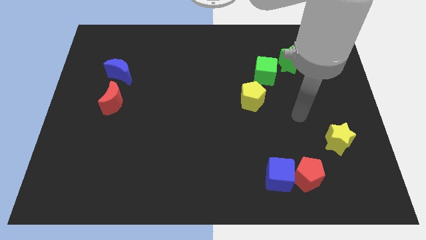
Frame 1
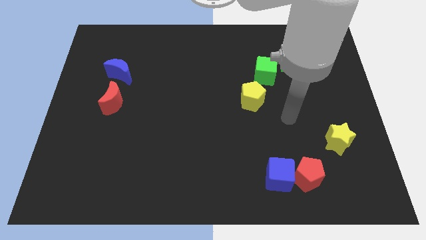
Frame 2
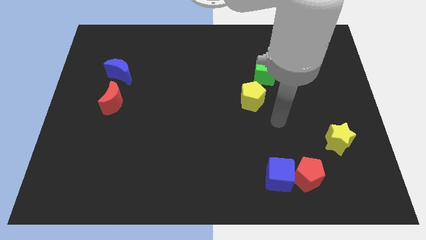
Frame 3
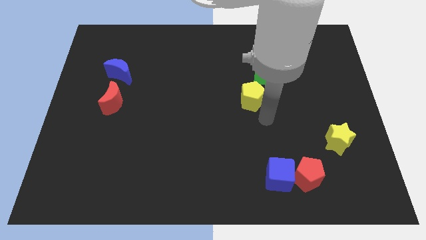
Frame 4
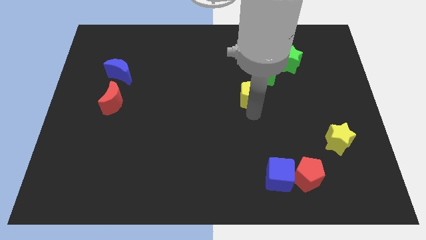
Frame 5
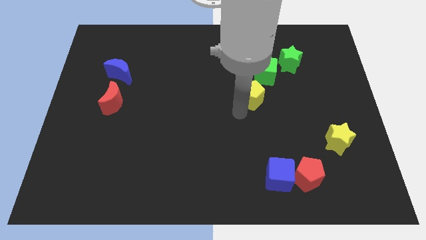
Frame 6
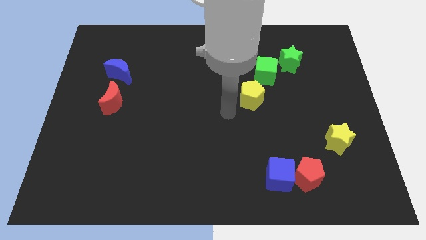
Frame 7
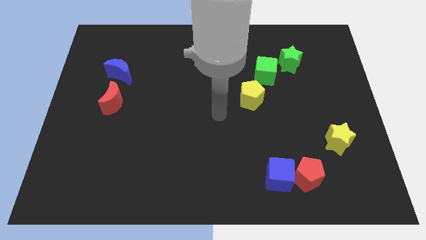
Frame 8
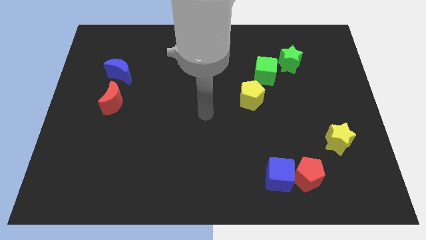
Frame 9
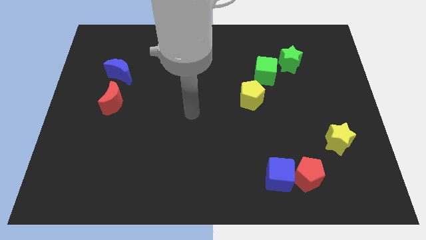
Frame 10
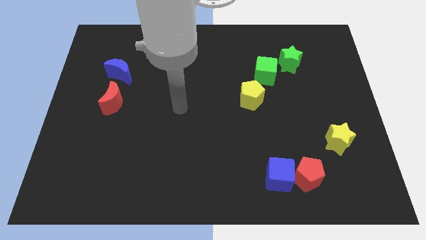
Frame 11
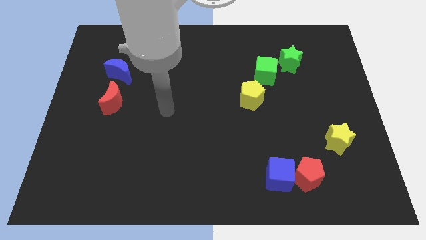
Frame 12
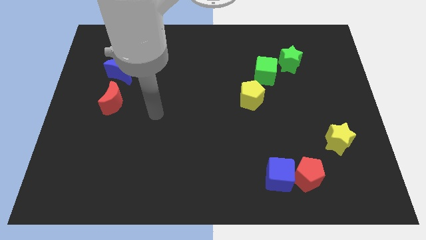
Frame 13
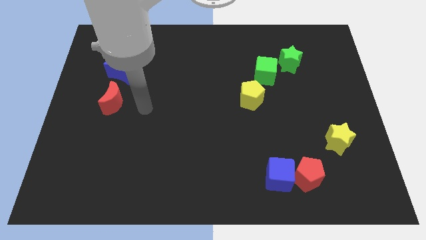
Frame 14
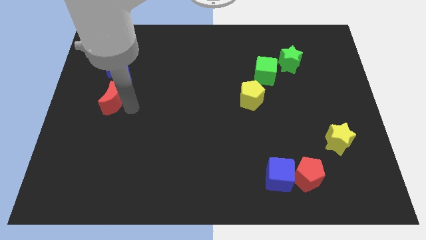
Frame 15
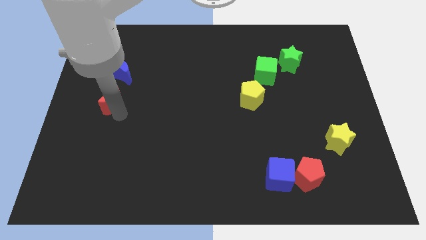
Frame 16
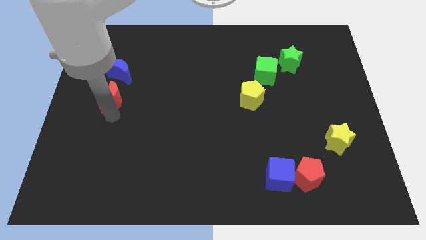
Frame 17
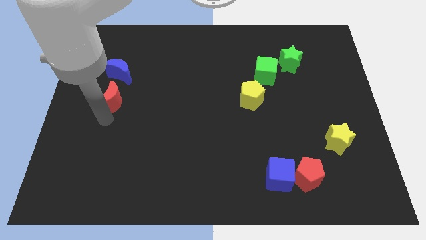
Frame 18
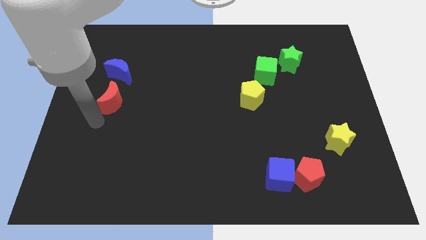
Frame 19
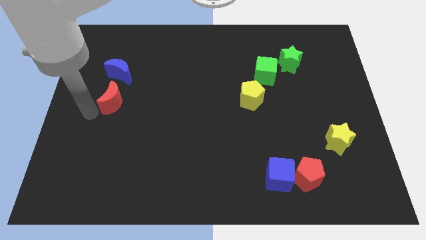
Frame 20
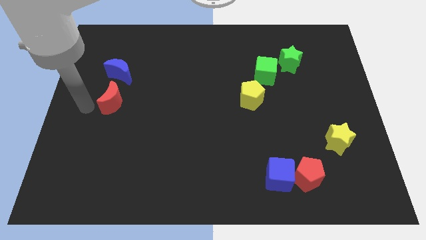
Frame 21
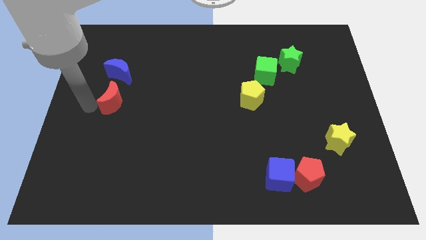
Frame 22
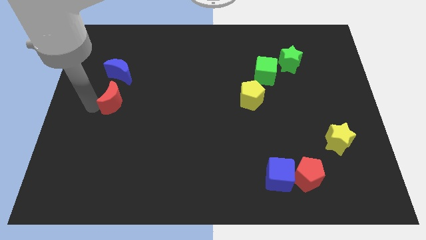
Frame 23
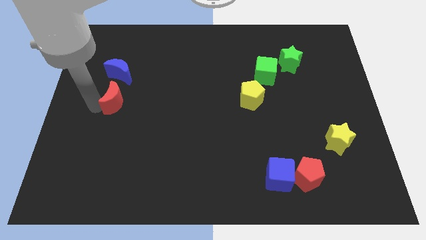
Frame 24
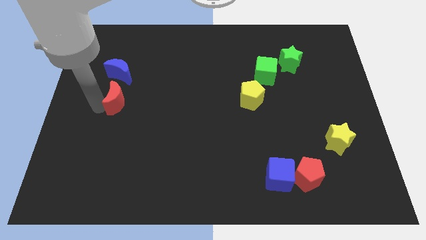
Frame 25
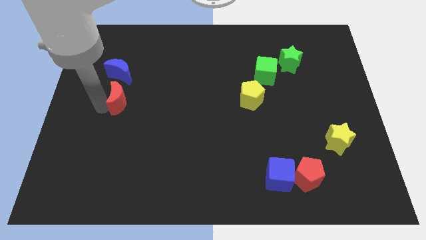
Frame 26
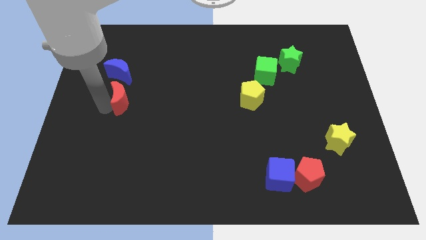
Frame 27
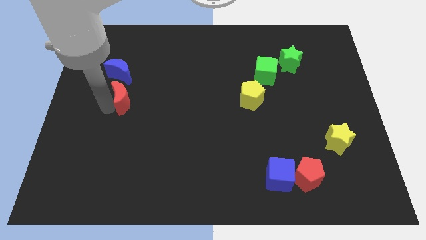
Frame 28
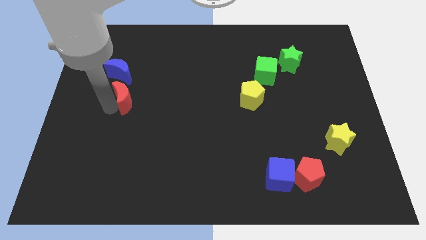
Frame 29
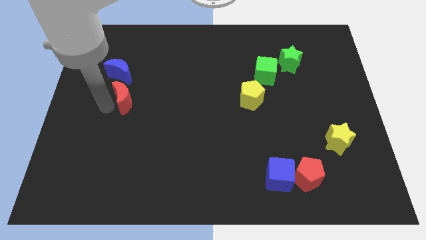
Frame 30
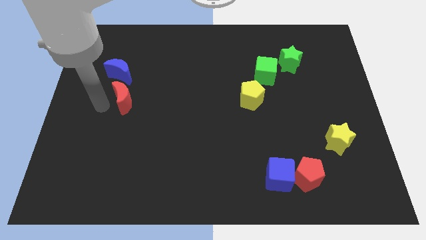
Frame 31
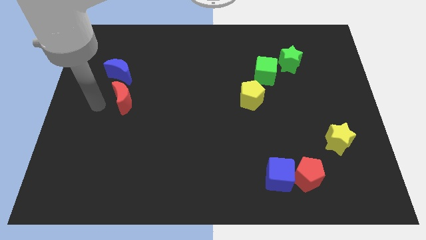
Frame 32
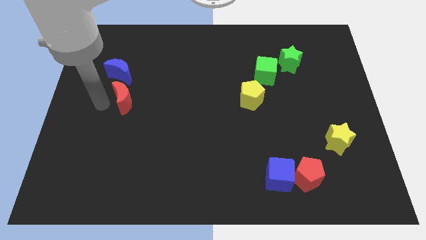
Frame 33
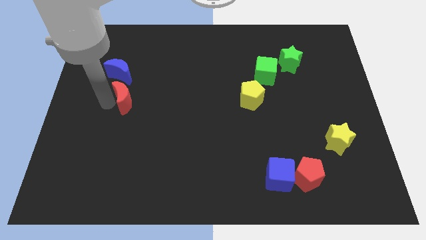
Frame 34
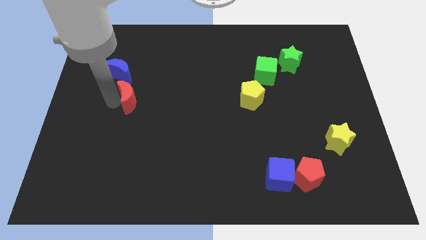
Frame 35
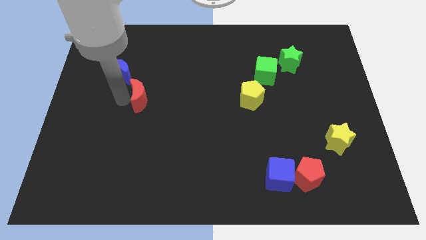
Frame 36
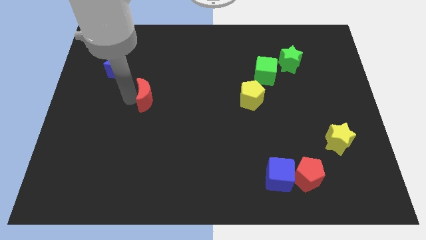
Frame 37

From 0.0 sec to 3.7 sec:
slide the red moon a bit right

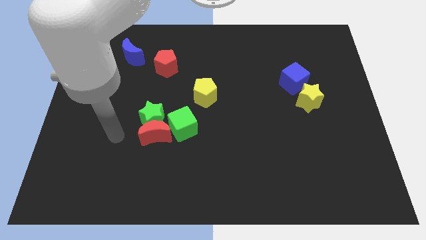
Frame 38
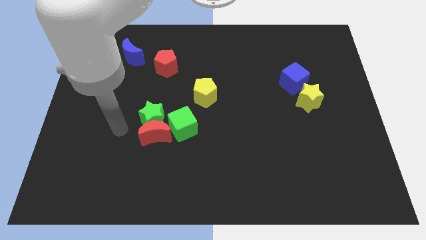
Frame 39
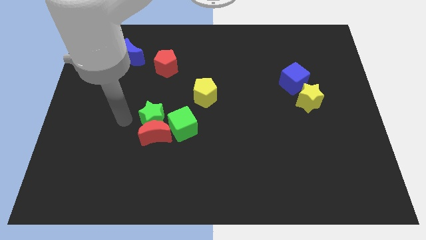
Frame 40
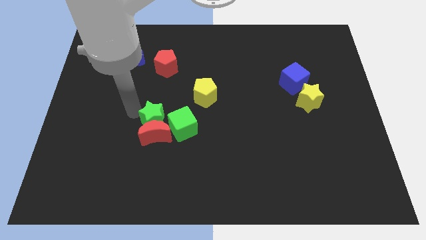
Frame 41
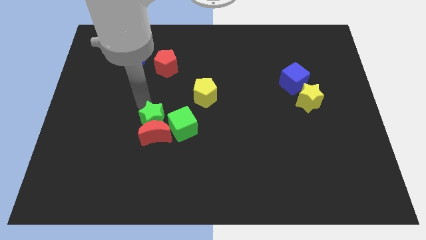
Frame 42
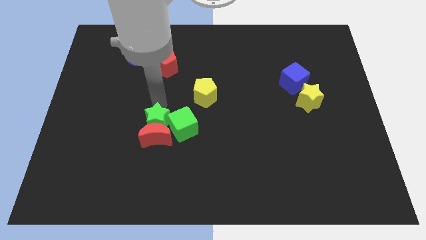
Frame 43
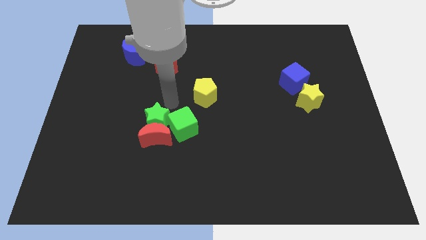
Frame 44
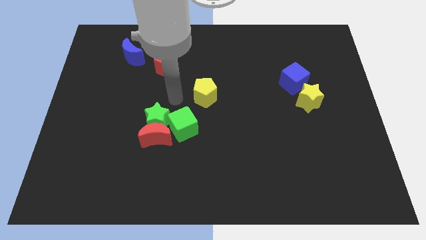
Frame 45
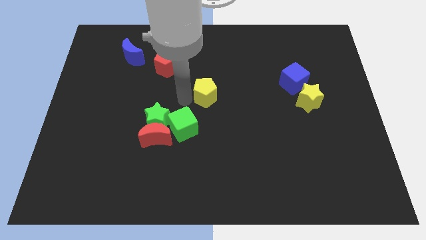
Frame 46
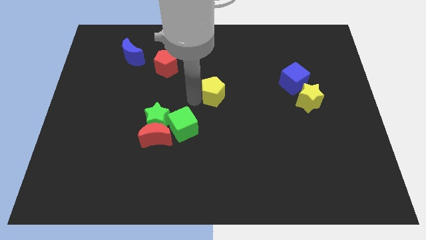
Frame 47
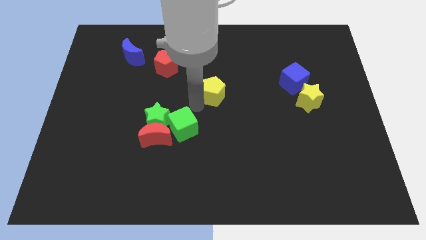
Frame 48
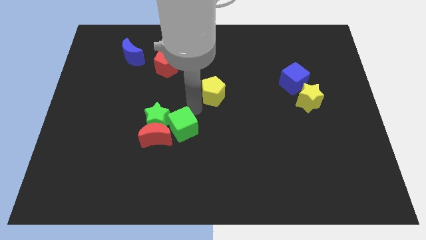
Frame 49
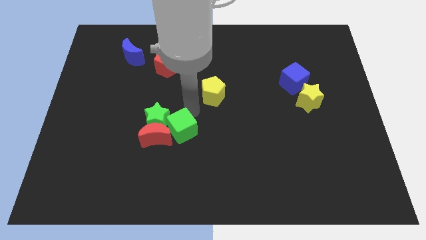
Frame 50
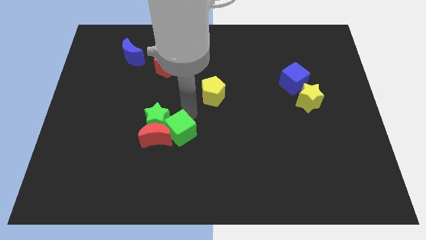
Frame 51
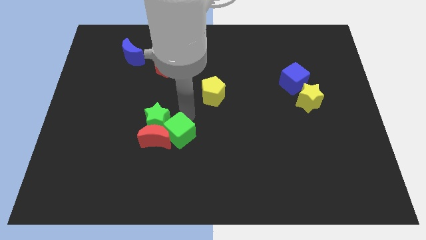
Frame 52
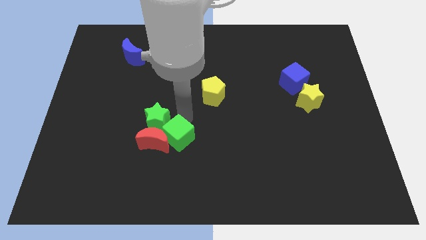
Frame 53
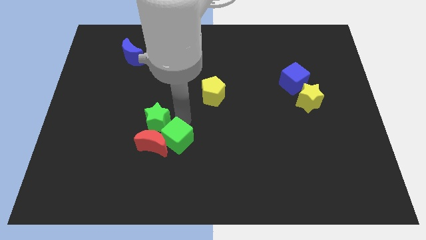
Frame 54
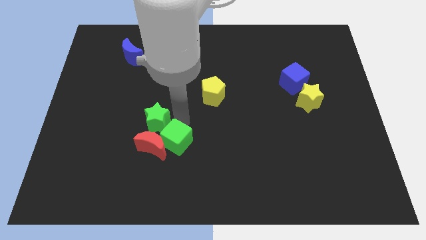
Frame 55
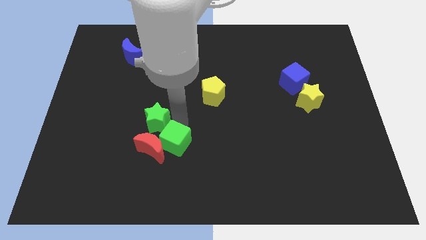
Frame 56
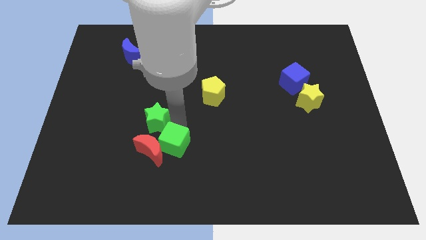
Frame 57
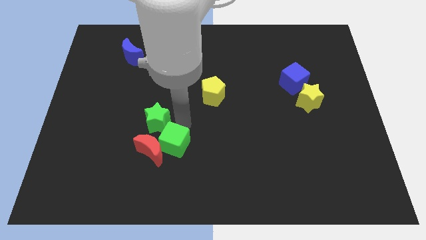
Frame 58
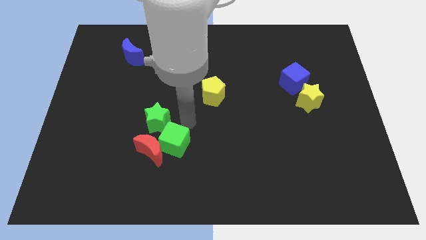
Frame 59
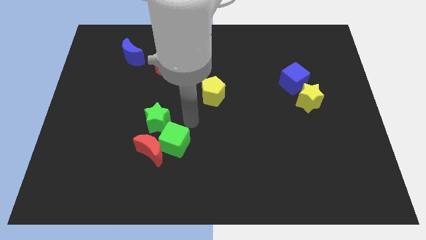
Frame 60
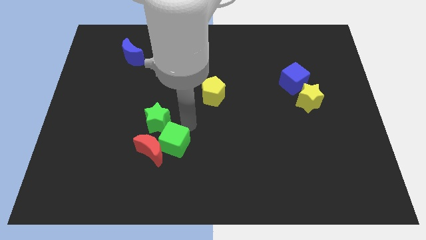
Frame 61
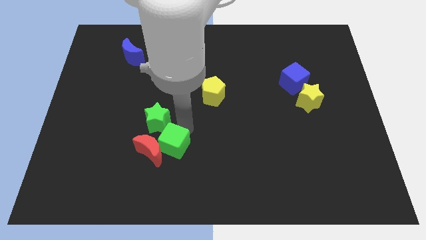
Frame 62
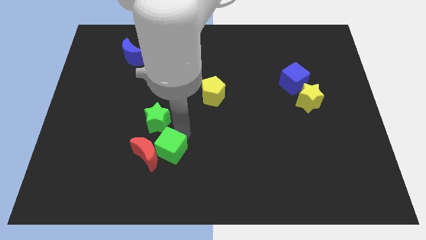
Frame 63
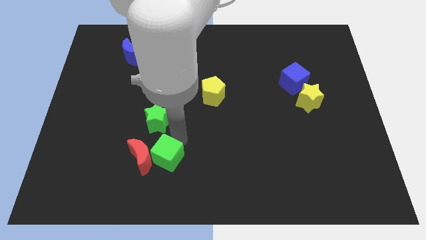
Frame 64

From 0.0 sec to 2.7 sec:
push the green cube down and then to the left a little bit

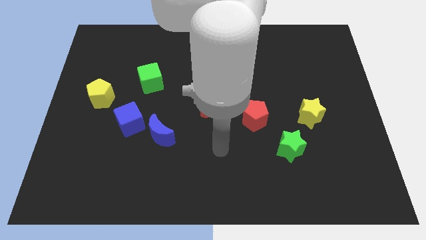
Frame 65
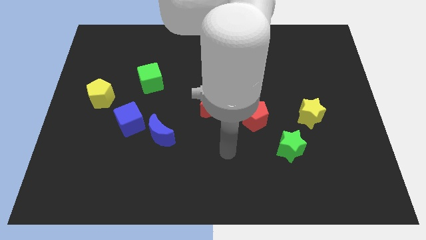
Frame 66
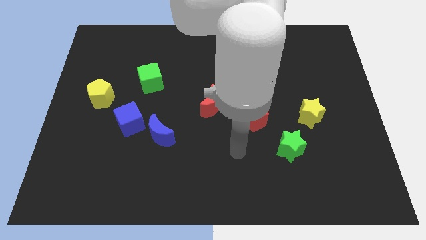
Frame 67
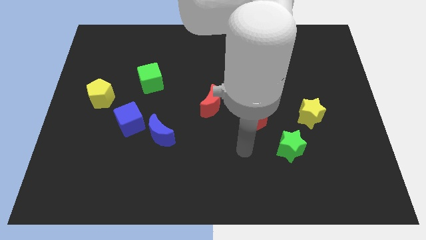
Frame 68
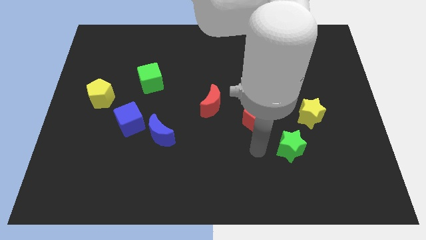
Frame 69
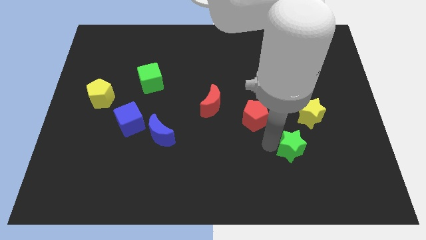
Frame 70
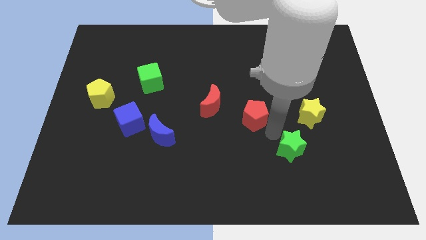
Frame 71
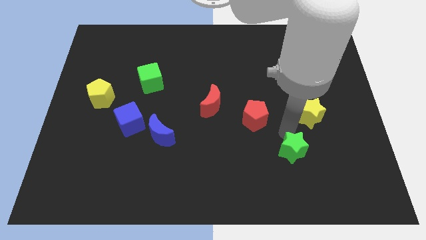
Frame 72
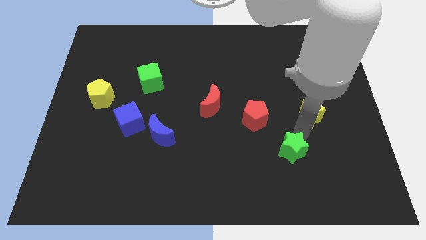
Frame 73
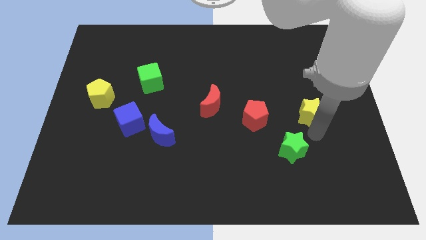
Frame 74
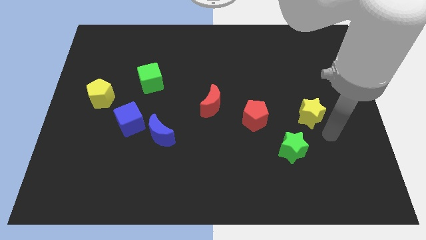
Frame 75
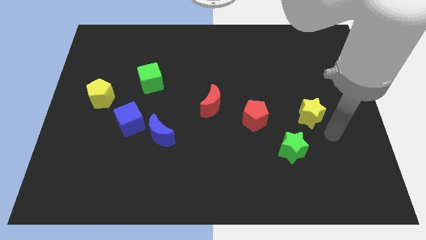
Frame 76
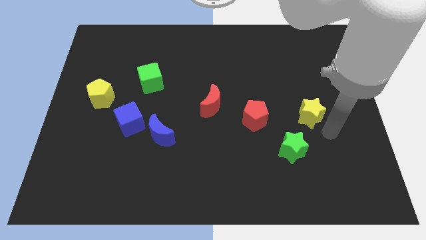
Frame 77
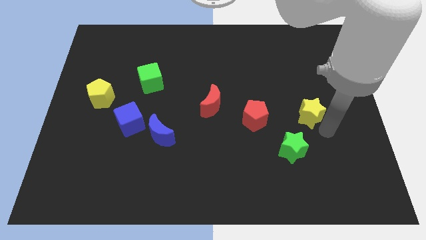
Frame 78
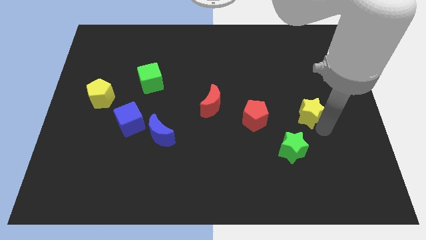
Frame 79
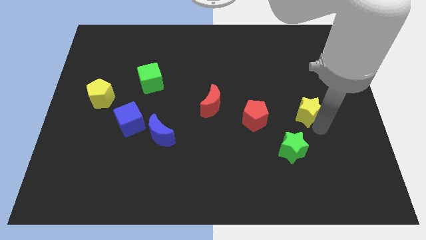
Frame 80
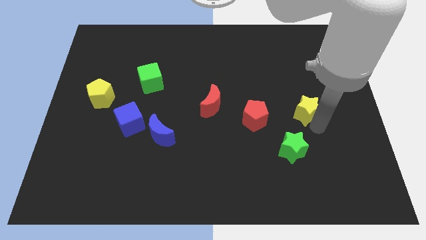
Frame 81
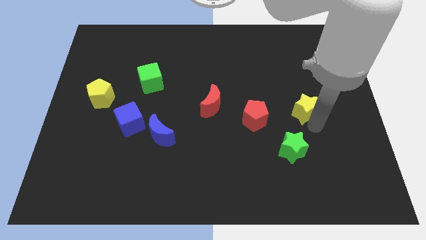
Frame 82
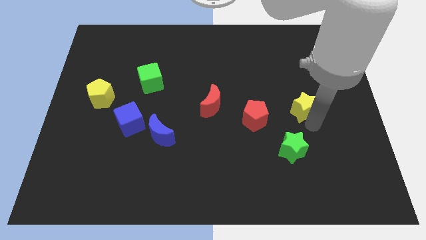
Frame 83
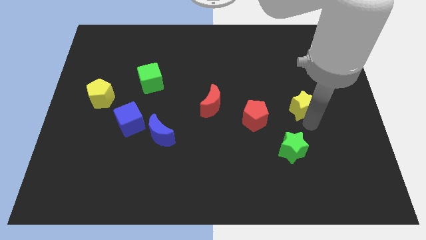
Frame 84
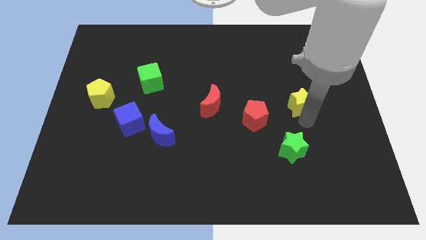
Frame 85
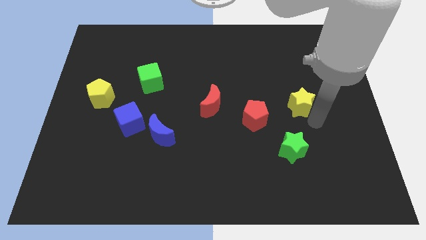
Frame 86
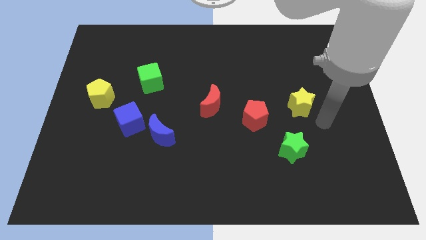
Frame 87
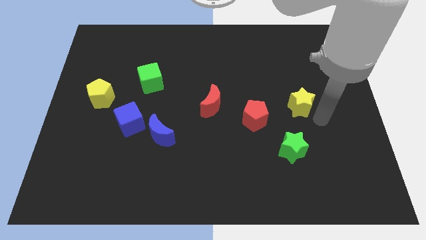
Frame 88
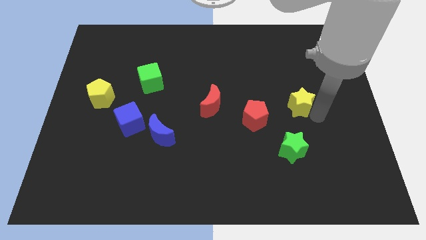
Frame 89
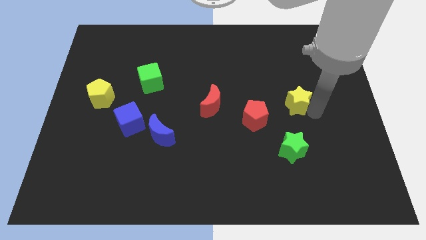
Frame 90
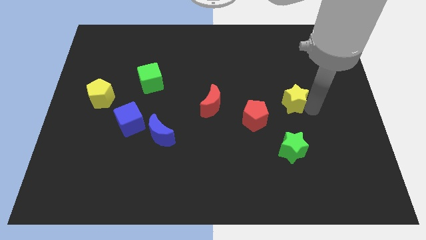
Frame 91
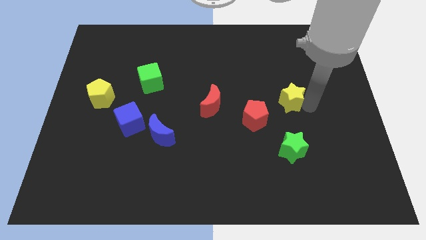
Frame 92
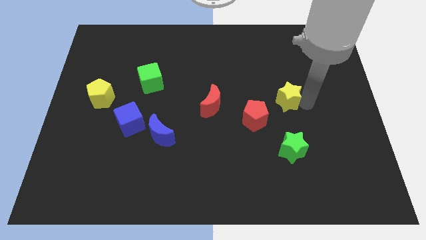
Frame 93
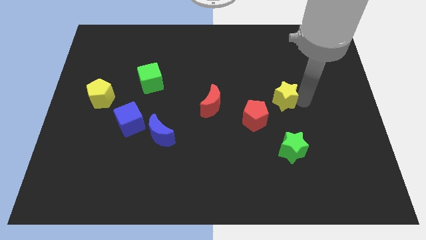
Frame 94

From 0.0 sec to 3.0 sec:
slightly slide the yellow star diagonally upwards and to the left
